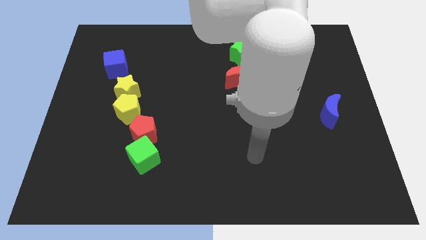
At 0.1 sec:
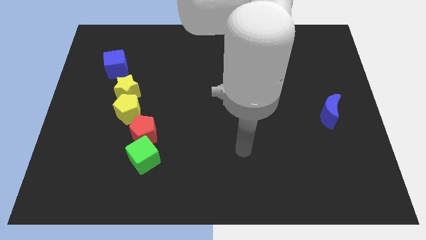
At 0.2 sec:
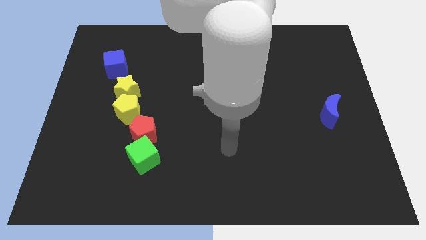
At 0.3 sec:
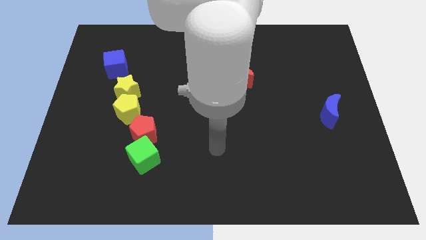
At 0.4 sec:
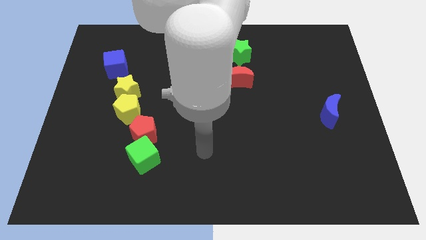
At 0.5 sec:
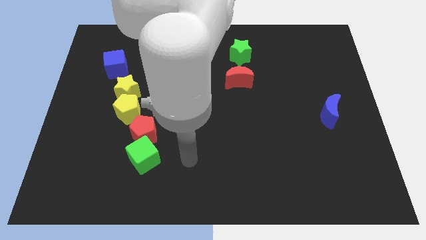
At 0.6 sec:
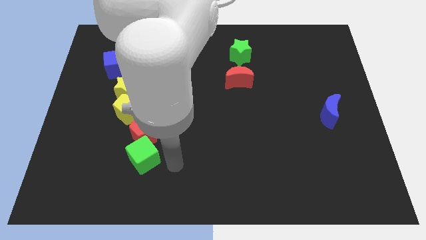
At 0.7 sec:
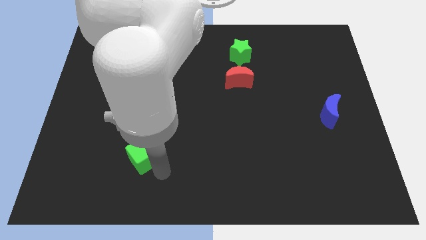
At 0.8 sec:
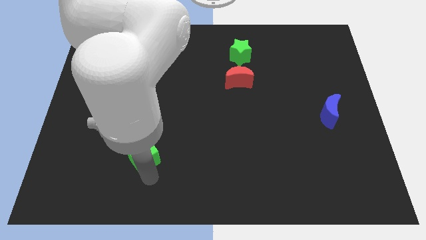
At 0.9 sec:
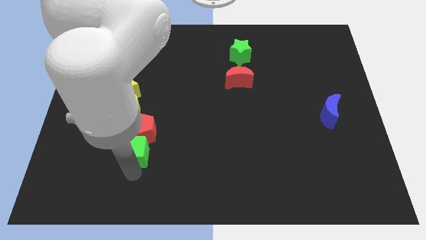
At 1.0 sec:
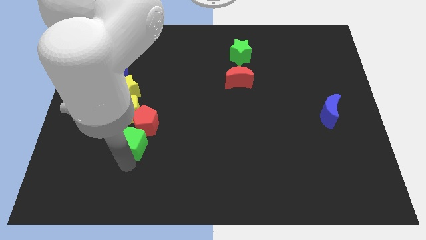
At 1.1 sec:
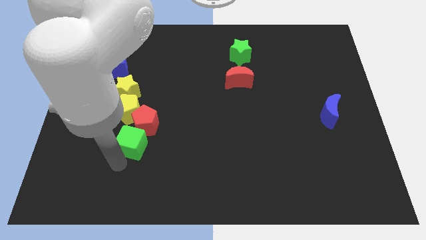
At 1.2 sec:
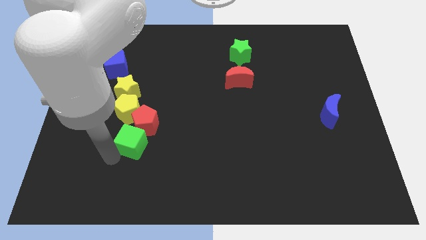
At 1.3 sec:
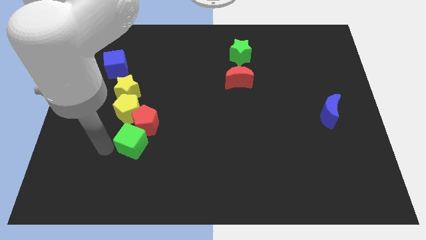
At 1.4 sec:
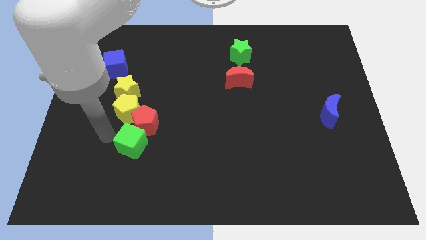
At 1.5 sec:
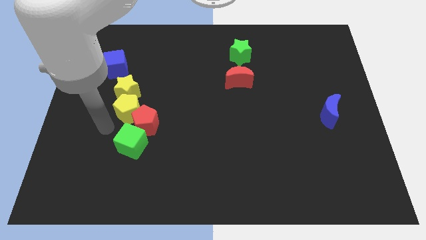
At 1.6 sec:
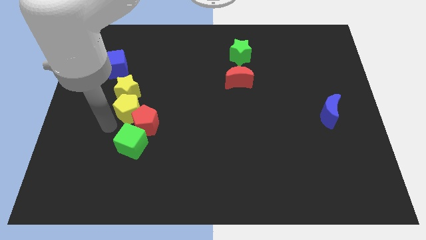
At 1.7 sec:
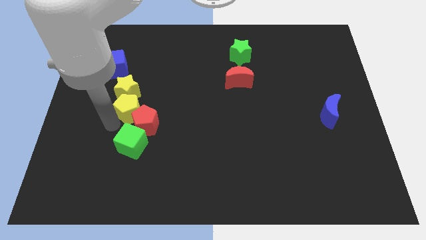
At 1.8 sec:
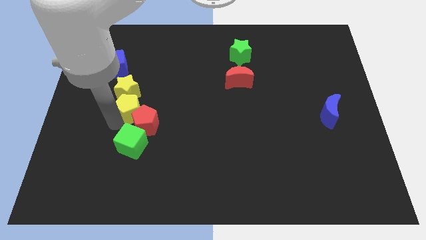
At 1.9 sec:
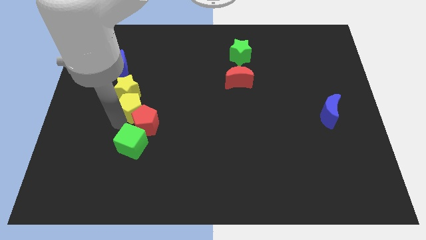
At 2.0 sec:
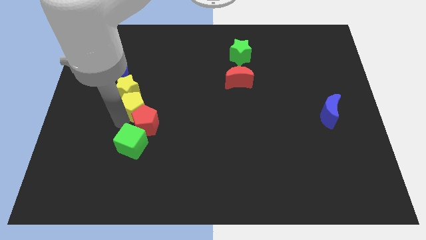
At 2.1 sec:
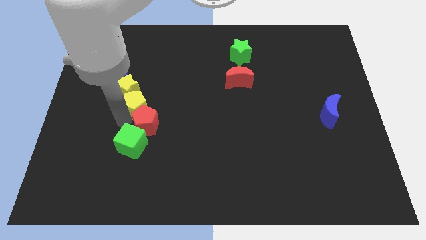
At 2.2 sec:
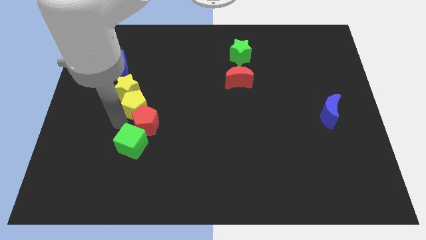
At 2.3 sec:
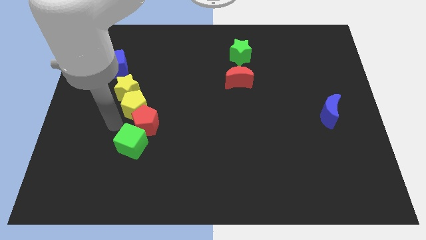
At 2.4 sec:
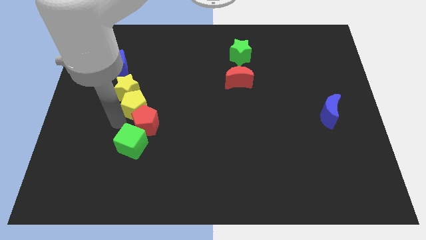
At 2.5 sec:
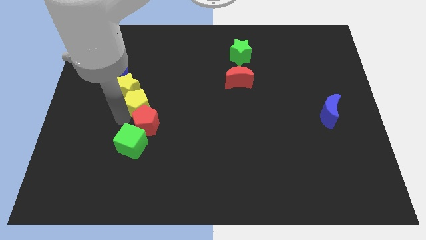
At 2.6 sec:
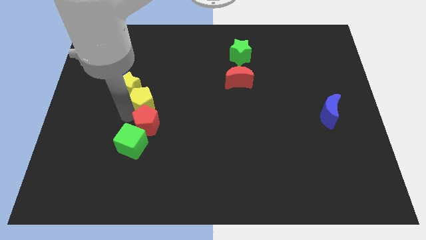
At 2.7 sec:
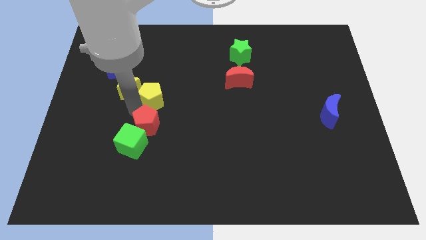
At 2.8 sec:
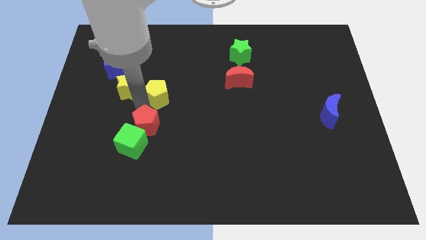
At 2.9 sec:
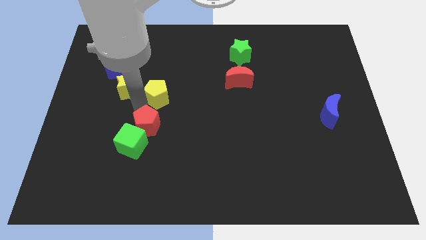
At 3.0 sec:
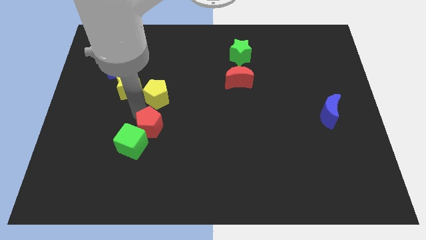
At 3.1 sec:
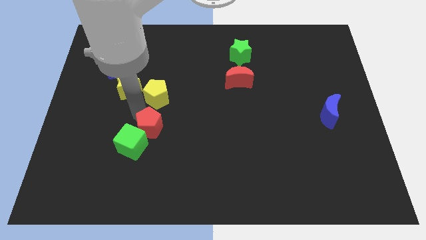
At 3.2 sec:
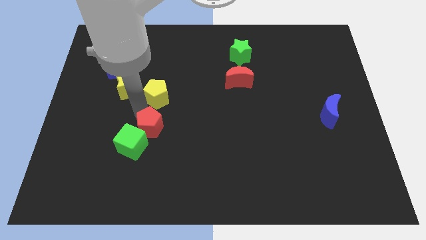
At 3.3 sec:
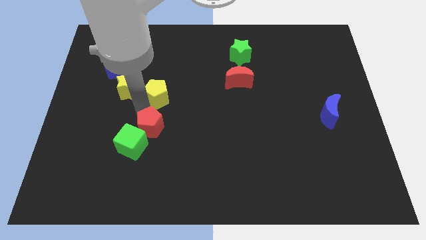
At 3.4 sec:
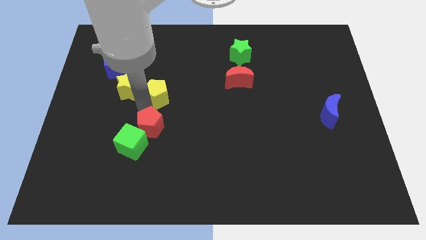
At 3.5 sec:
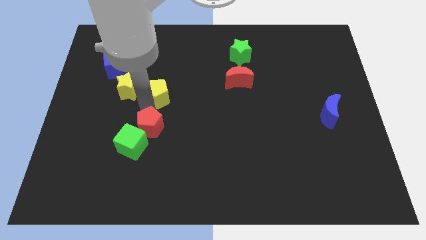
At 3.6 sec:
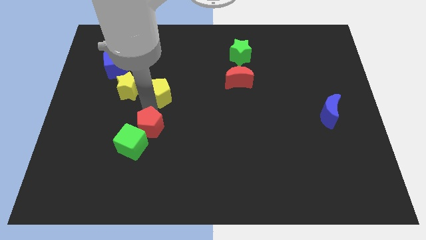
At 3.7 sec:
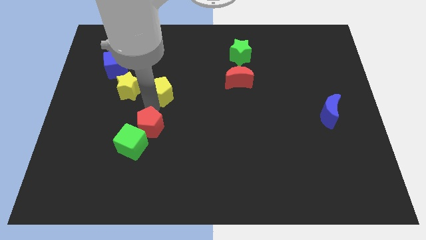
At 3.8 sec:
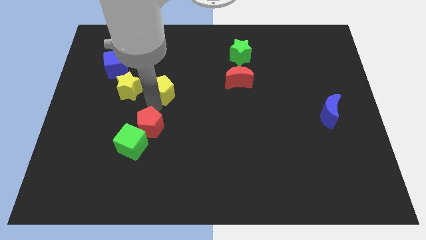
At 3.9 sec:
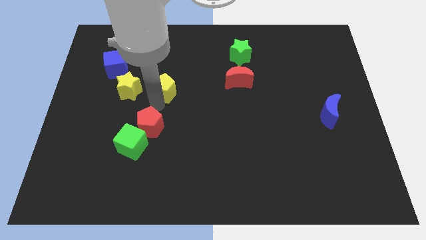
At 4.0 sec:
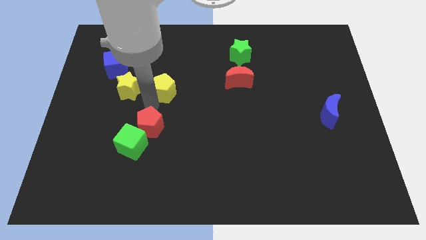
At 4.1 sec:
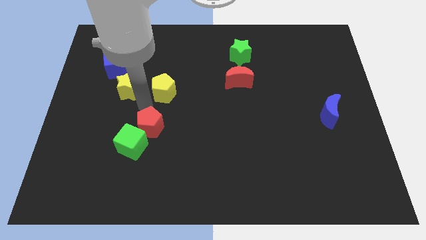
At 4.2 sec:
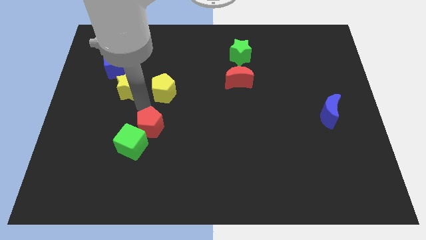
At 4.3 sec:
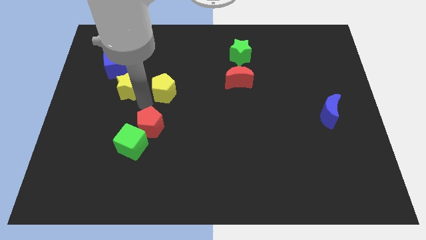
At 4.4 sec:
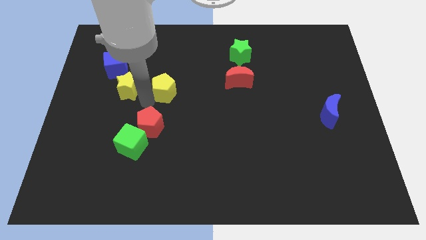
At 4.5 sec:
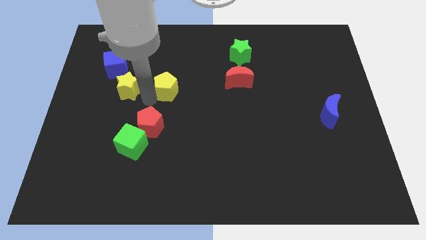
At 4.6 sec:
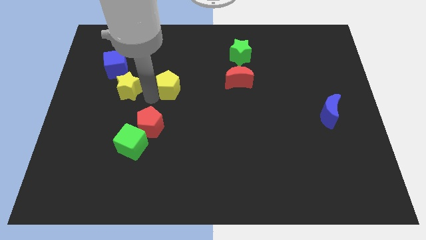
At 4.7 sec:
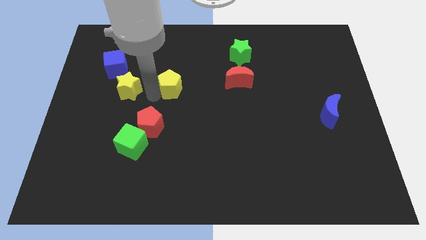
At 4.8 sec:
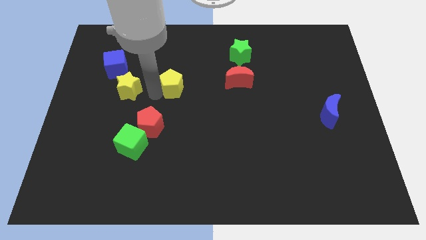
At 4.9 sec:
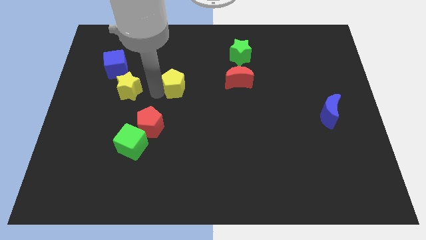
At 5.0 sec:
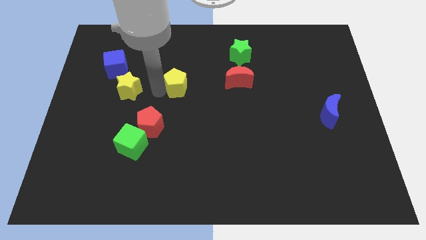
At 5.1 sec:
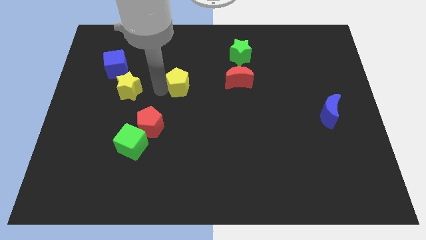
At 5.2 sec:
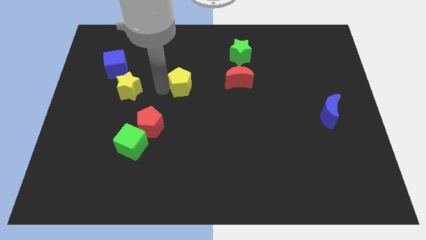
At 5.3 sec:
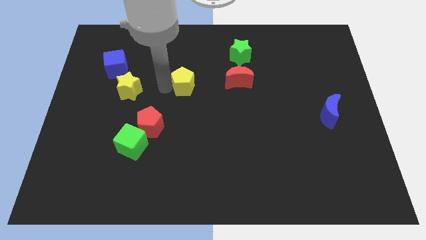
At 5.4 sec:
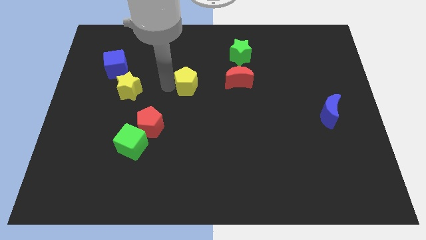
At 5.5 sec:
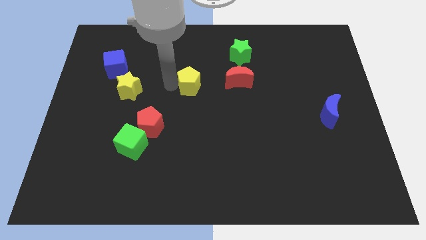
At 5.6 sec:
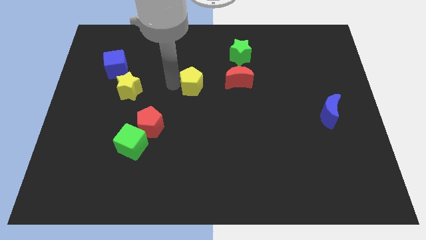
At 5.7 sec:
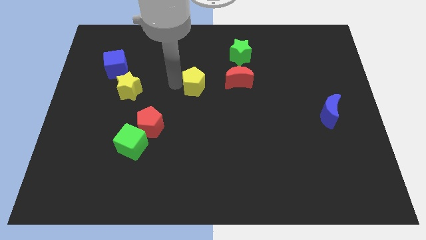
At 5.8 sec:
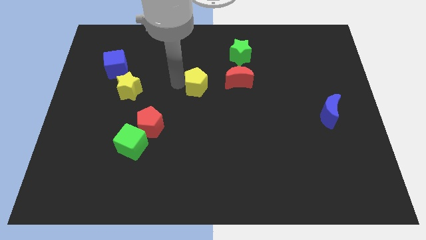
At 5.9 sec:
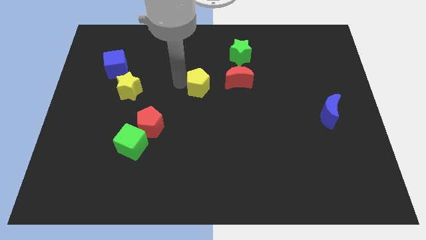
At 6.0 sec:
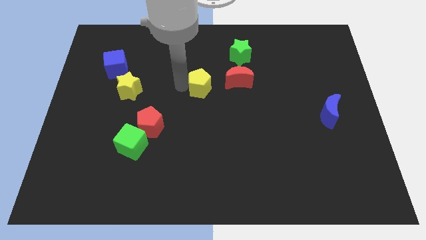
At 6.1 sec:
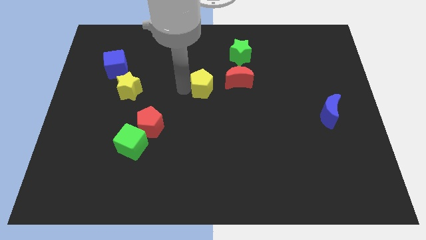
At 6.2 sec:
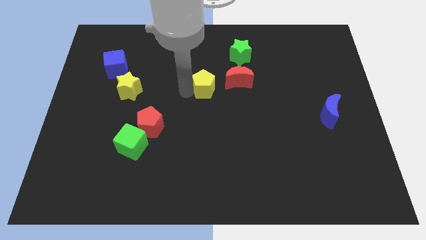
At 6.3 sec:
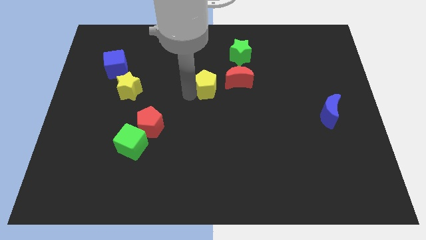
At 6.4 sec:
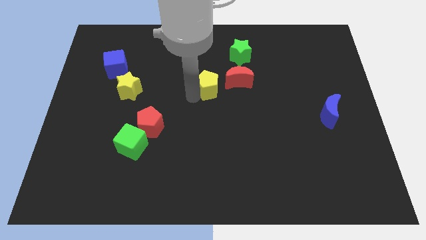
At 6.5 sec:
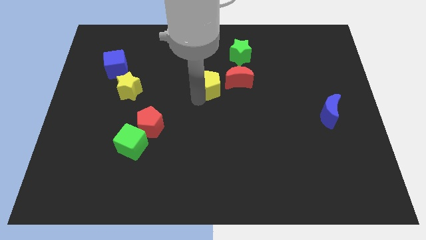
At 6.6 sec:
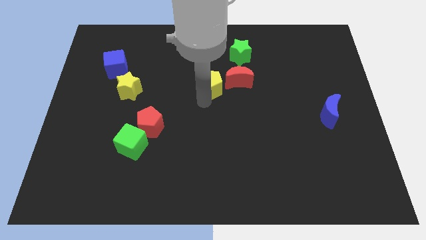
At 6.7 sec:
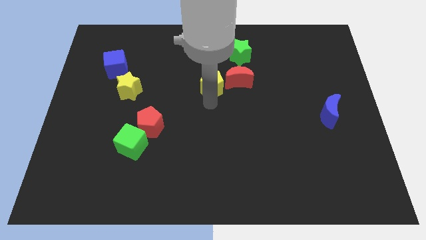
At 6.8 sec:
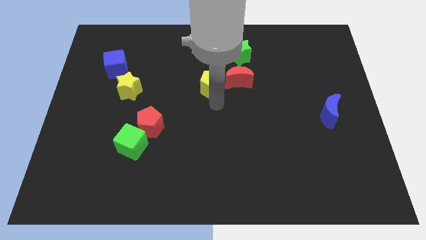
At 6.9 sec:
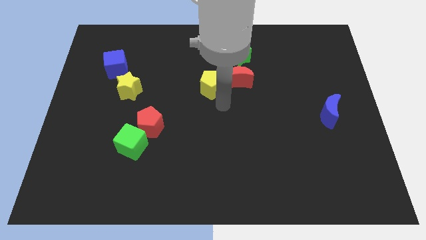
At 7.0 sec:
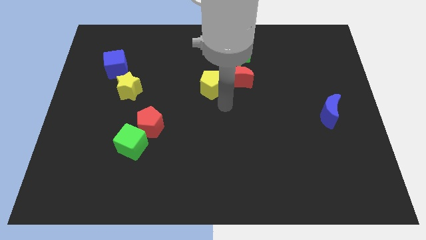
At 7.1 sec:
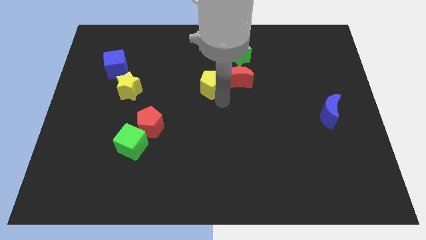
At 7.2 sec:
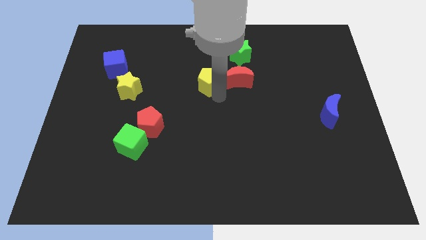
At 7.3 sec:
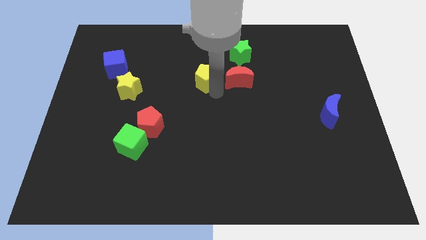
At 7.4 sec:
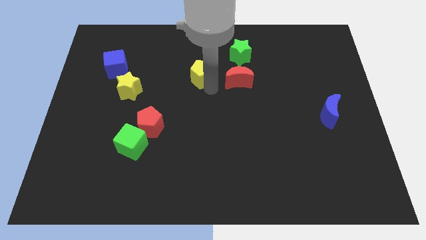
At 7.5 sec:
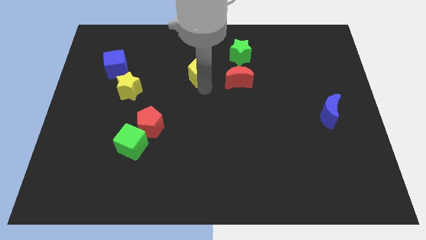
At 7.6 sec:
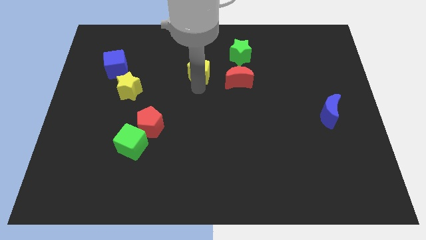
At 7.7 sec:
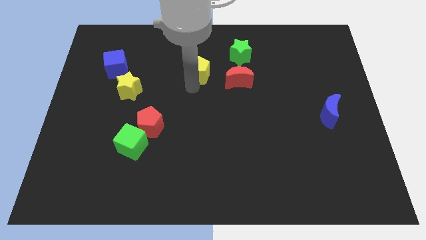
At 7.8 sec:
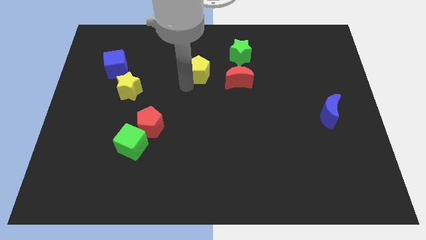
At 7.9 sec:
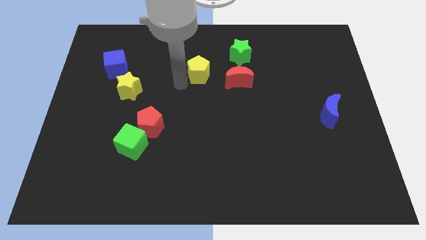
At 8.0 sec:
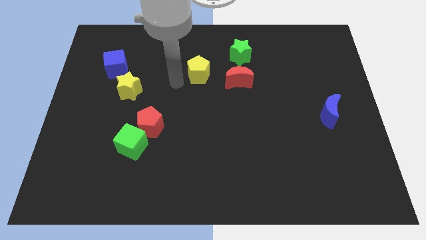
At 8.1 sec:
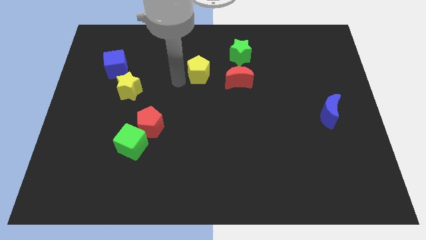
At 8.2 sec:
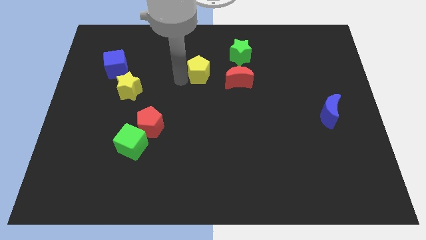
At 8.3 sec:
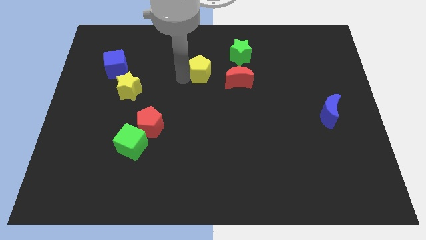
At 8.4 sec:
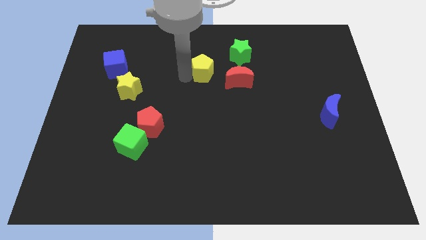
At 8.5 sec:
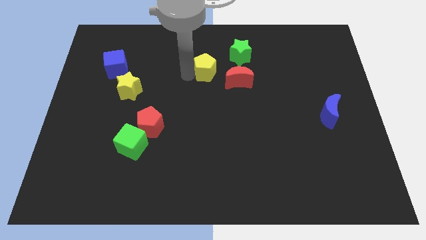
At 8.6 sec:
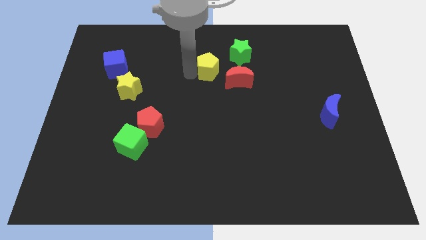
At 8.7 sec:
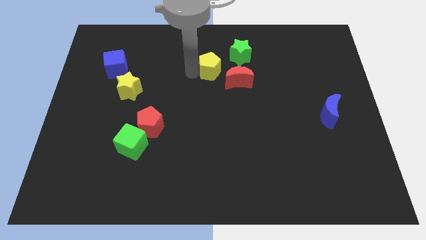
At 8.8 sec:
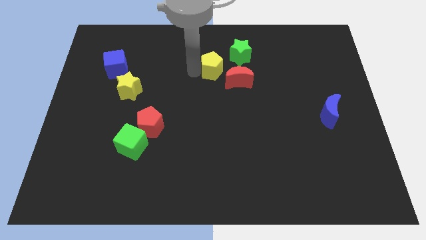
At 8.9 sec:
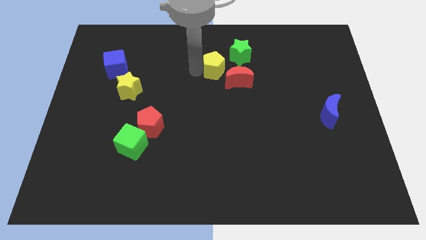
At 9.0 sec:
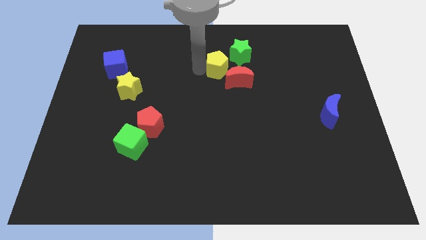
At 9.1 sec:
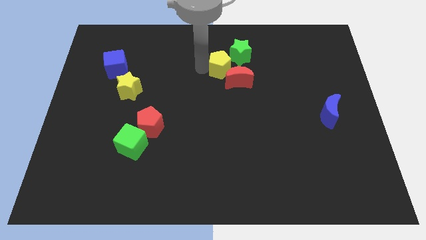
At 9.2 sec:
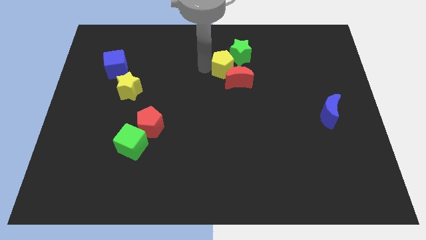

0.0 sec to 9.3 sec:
slide the yellow pentagon close to the green star
